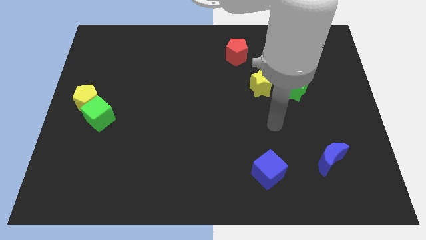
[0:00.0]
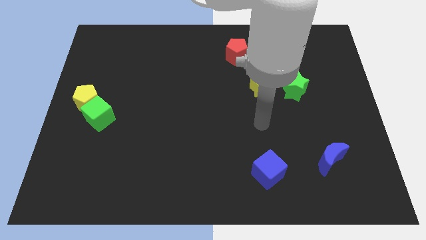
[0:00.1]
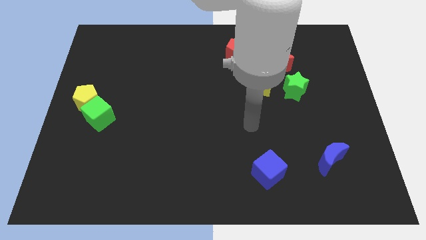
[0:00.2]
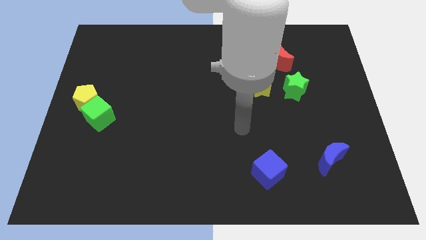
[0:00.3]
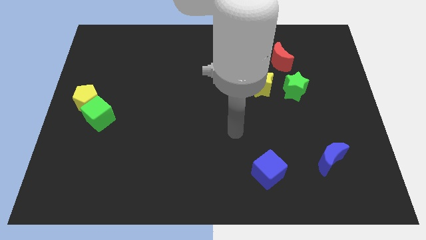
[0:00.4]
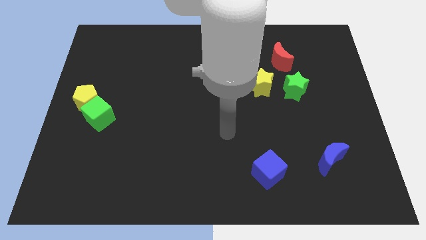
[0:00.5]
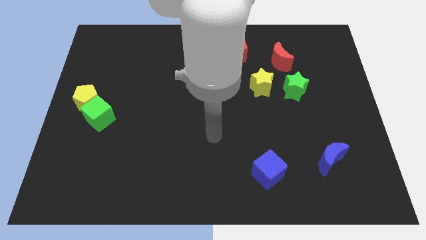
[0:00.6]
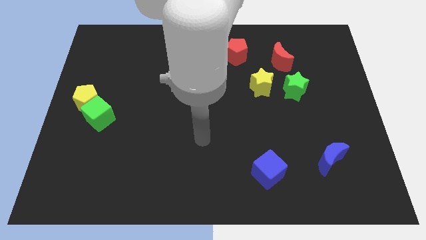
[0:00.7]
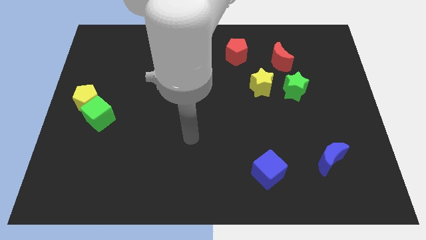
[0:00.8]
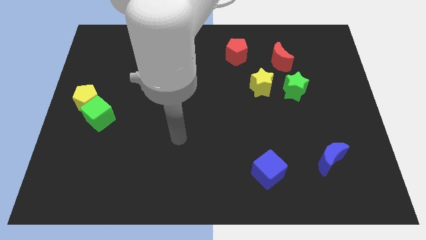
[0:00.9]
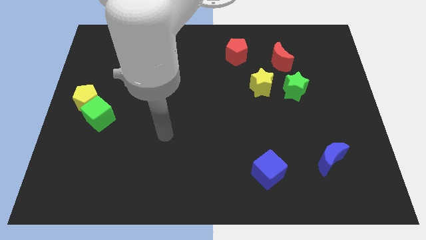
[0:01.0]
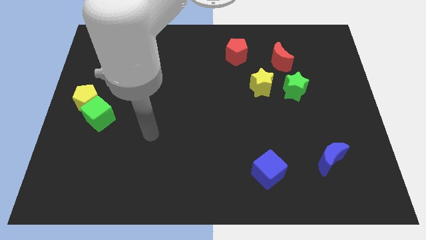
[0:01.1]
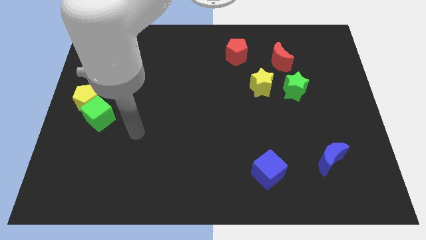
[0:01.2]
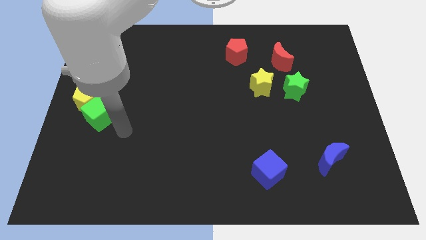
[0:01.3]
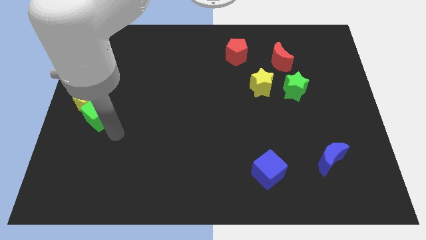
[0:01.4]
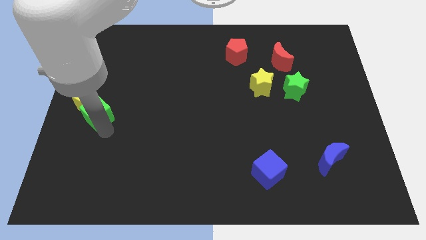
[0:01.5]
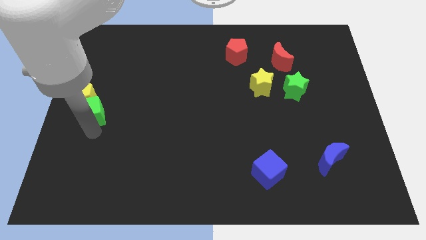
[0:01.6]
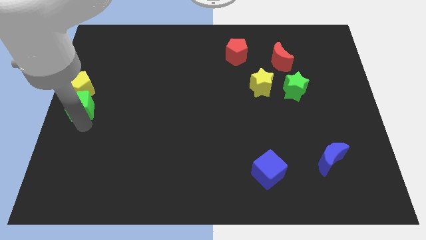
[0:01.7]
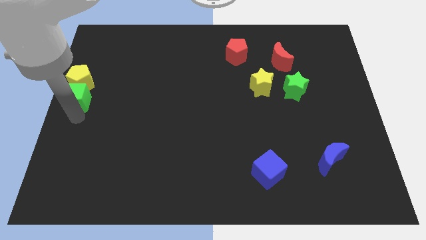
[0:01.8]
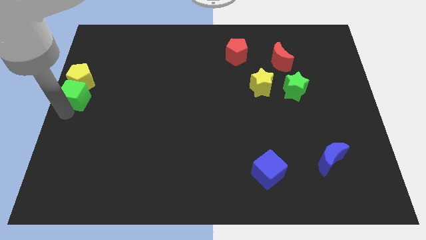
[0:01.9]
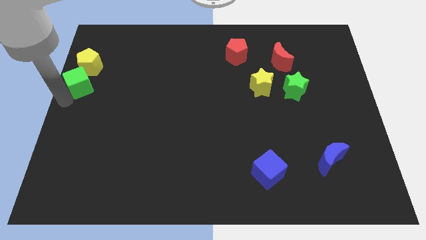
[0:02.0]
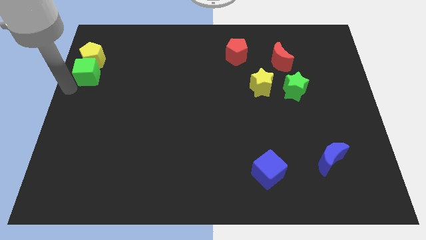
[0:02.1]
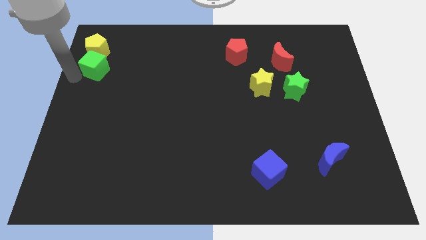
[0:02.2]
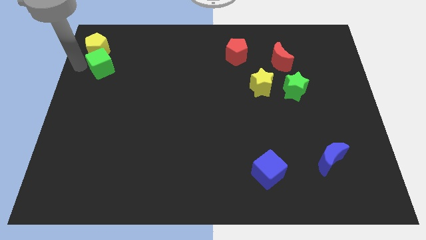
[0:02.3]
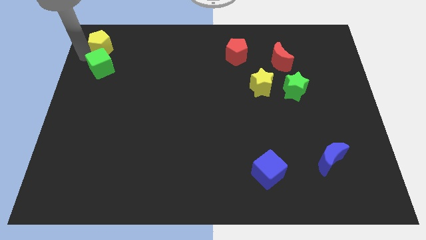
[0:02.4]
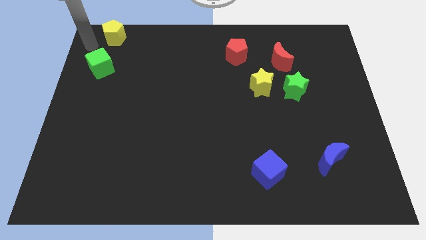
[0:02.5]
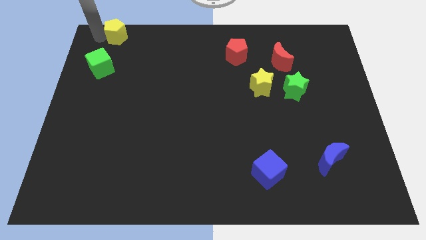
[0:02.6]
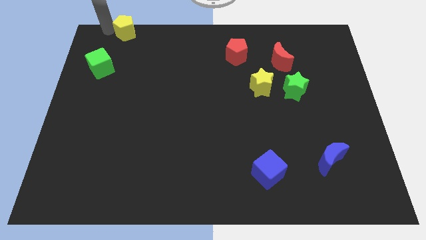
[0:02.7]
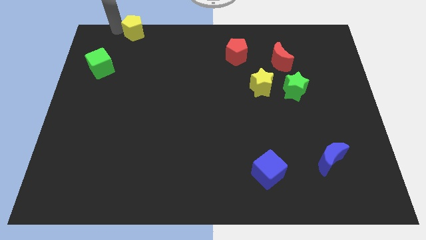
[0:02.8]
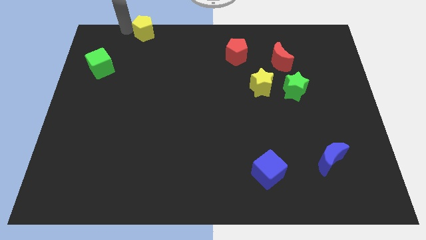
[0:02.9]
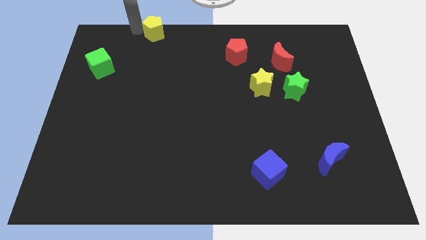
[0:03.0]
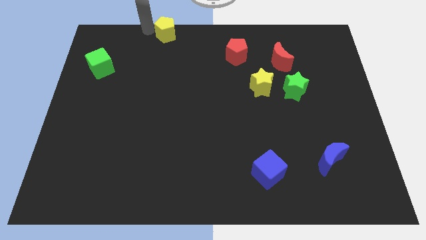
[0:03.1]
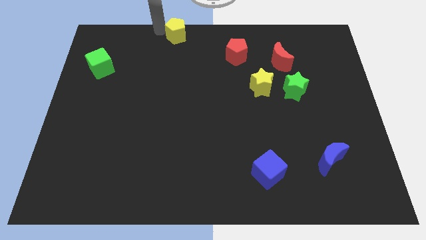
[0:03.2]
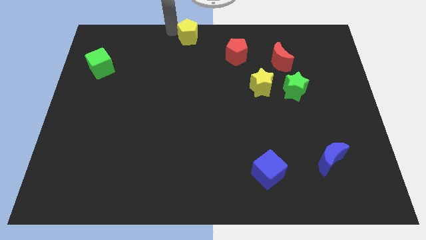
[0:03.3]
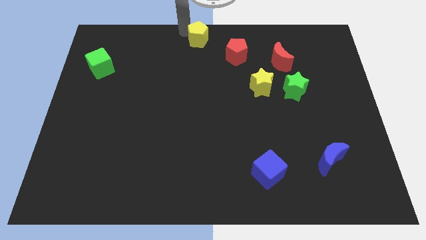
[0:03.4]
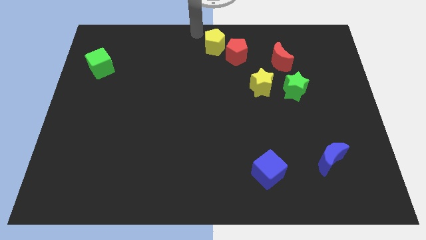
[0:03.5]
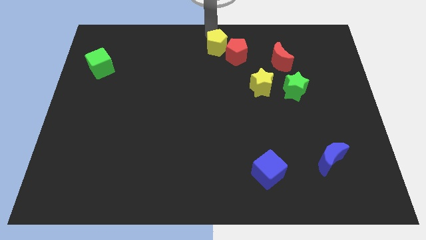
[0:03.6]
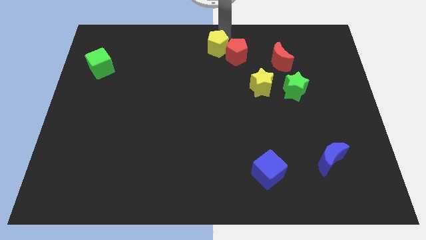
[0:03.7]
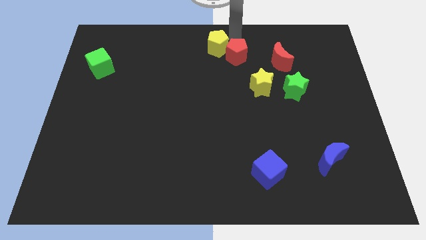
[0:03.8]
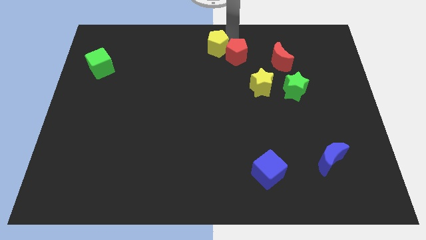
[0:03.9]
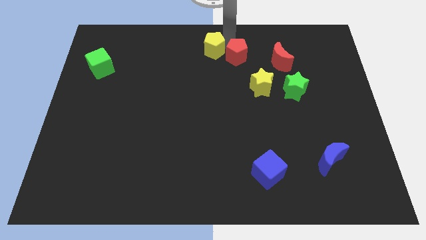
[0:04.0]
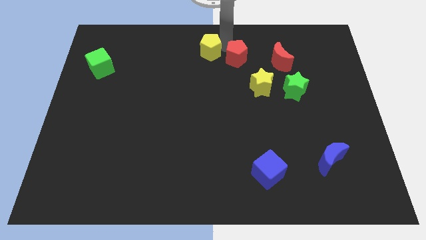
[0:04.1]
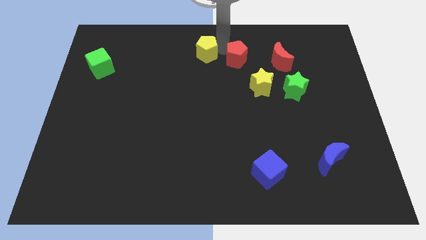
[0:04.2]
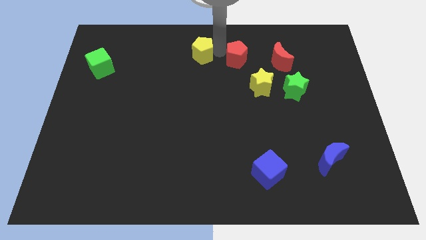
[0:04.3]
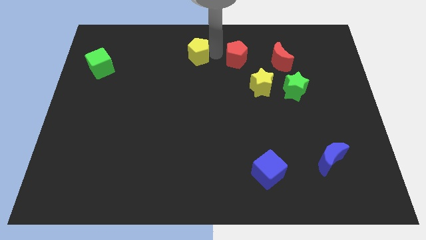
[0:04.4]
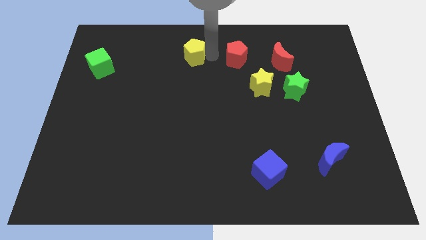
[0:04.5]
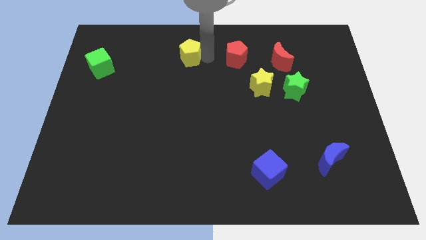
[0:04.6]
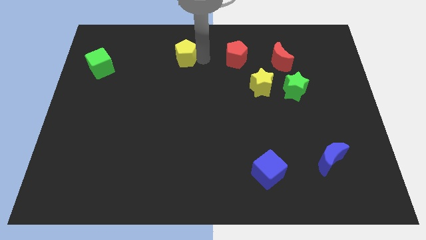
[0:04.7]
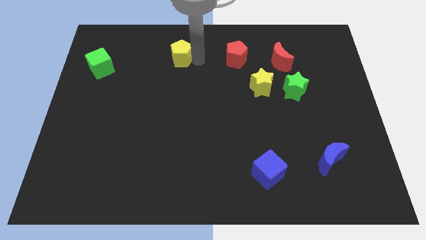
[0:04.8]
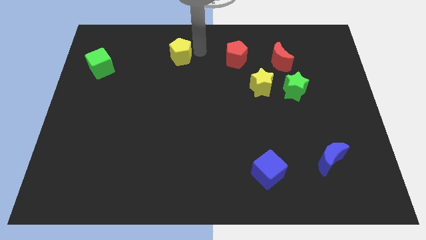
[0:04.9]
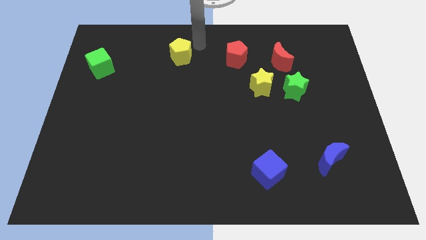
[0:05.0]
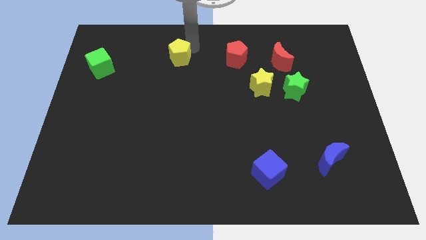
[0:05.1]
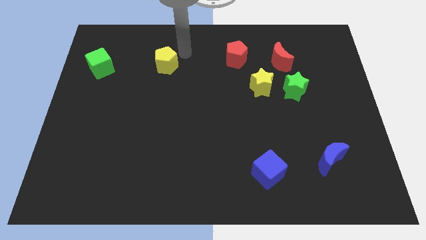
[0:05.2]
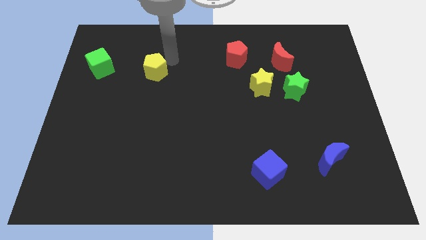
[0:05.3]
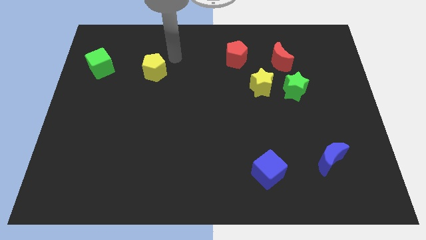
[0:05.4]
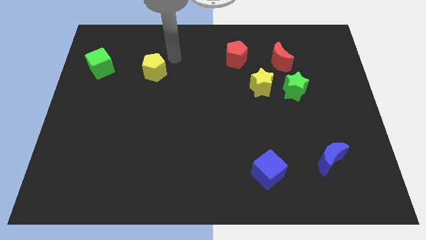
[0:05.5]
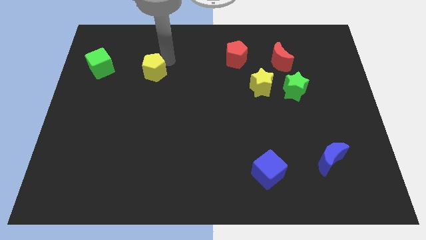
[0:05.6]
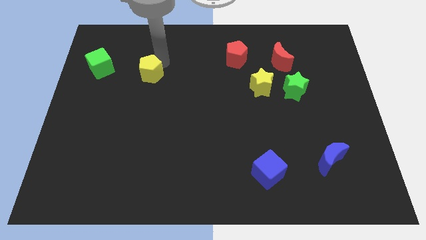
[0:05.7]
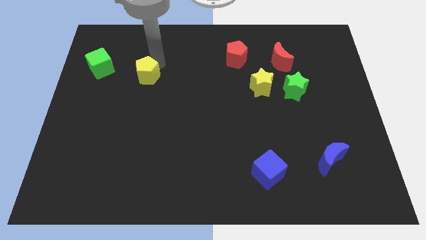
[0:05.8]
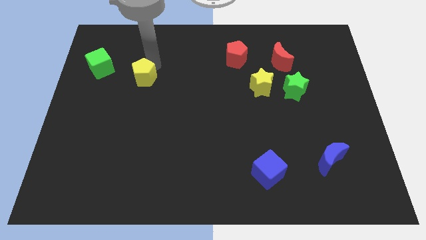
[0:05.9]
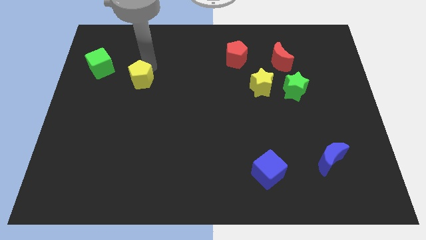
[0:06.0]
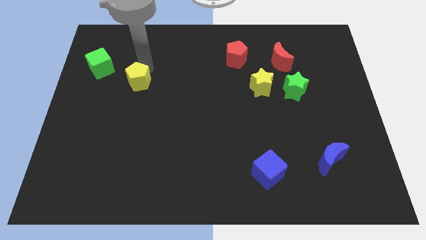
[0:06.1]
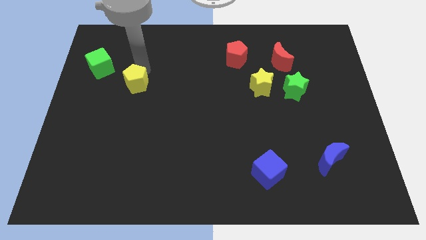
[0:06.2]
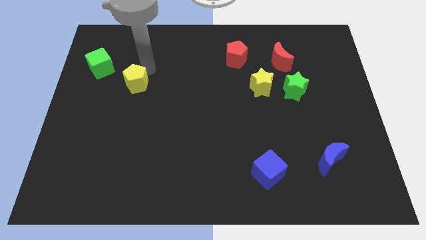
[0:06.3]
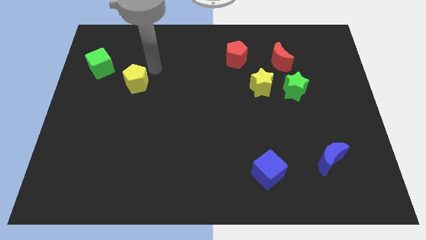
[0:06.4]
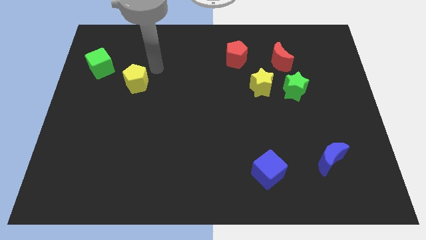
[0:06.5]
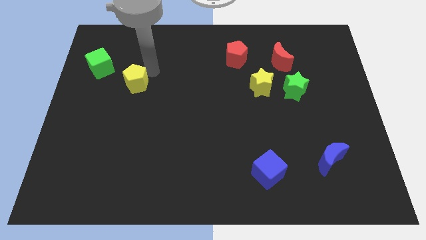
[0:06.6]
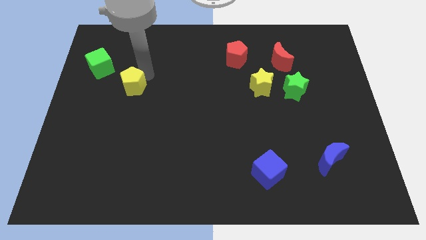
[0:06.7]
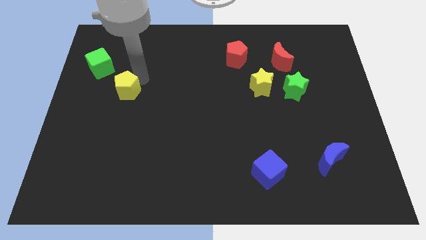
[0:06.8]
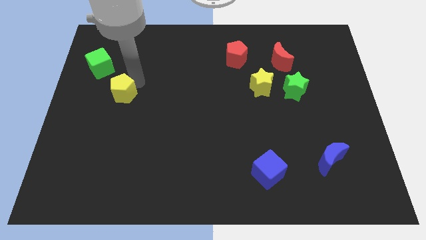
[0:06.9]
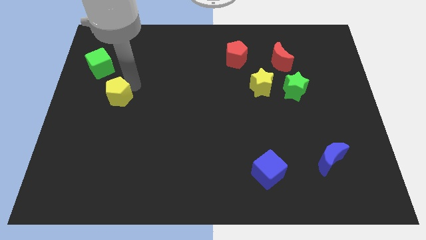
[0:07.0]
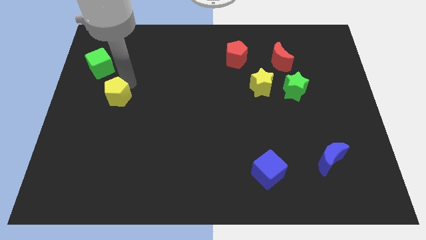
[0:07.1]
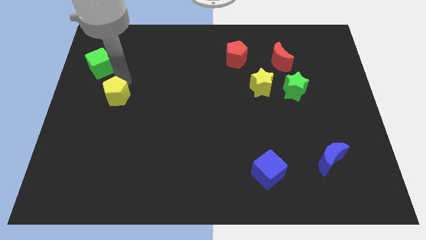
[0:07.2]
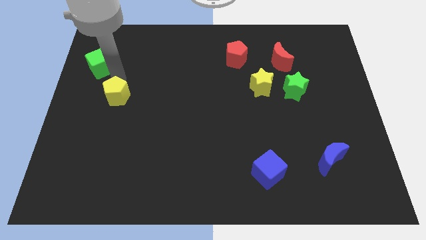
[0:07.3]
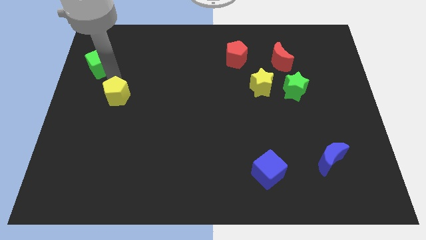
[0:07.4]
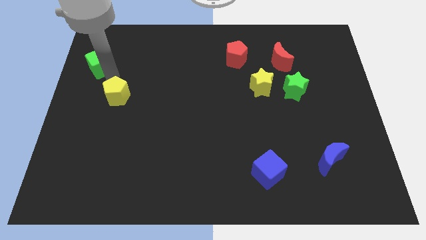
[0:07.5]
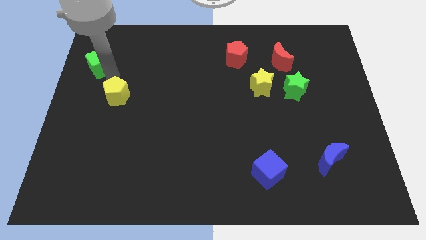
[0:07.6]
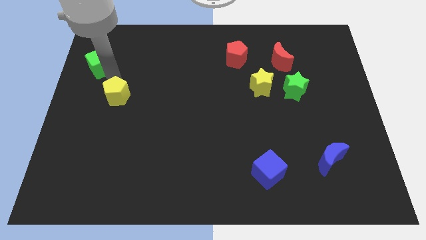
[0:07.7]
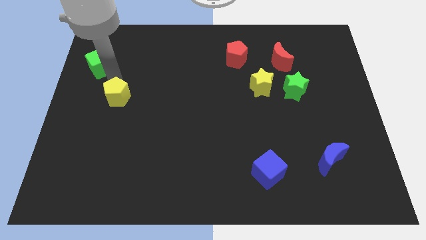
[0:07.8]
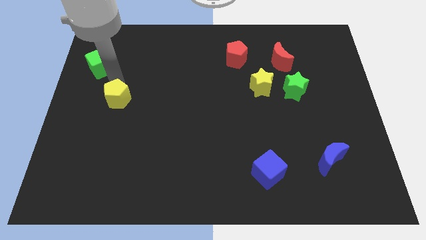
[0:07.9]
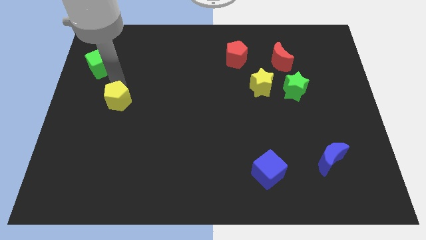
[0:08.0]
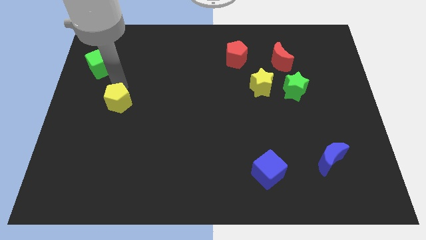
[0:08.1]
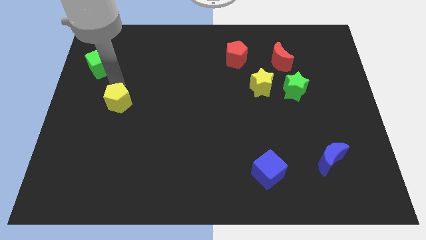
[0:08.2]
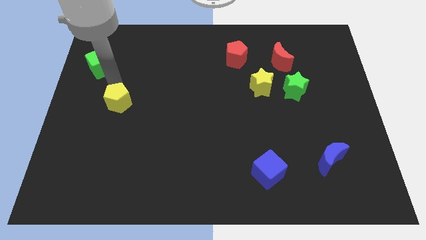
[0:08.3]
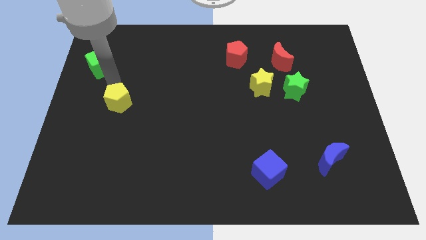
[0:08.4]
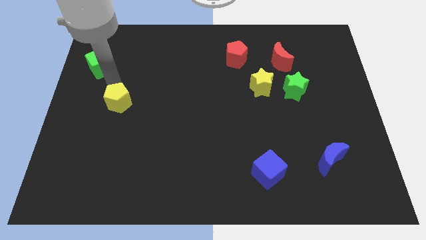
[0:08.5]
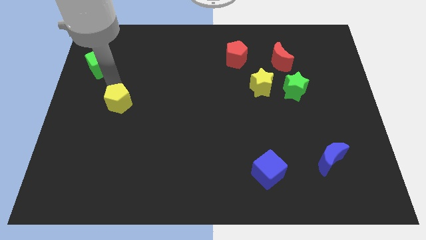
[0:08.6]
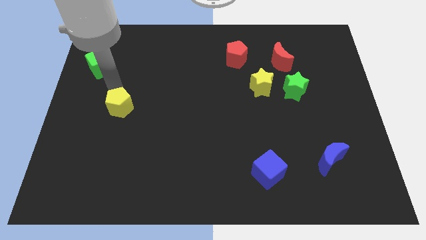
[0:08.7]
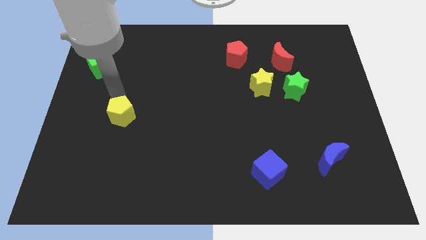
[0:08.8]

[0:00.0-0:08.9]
slide the yellow pentagon a little bit downwards and right diagonally
